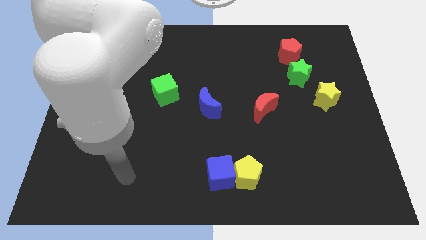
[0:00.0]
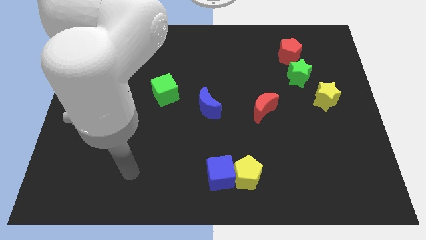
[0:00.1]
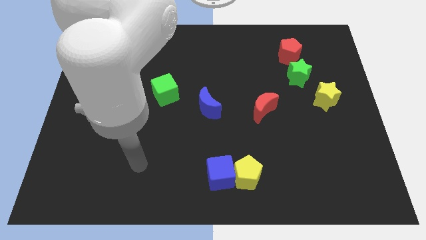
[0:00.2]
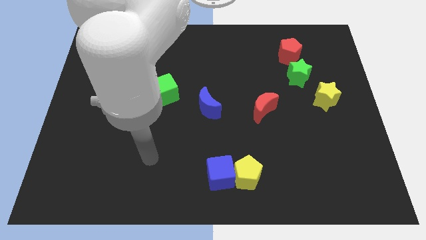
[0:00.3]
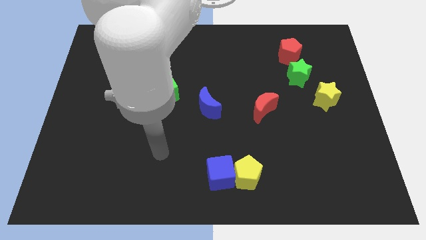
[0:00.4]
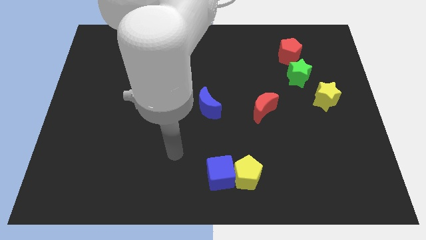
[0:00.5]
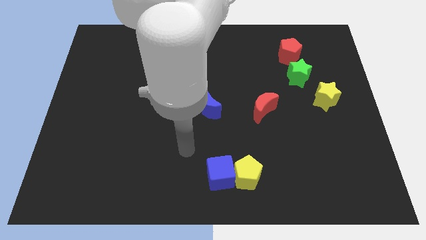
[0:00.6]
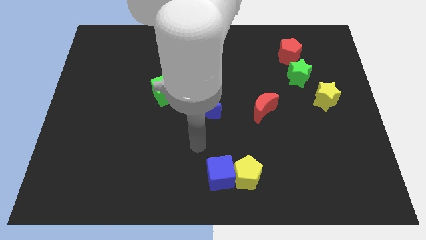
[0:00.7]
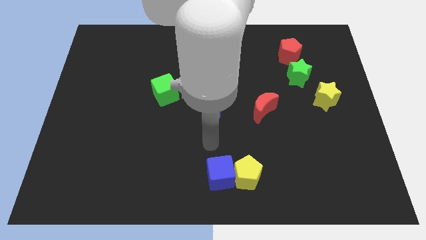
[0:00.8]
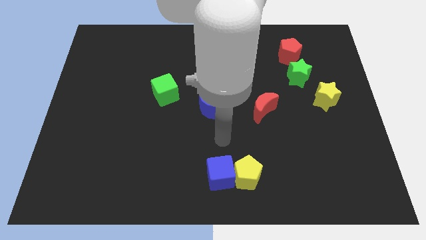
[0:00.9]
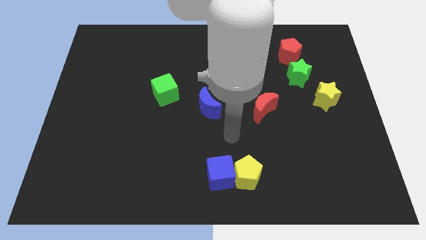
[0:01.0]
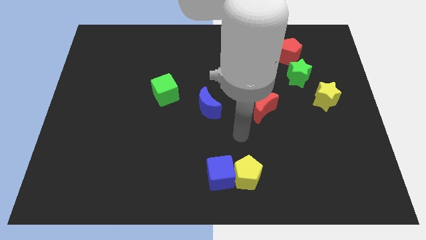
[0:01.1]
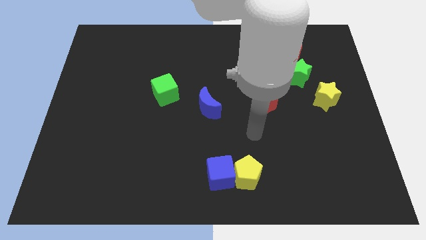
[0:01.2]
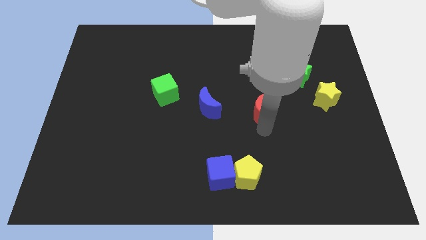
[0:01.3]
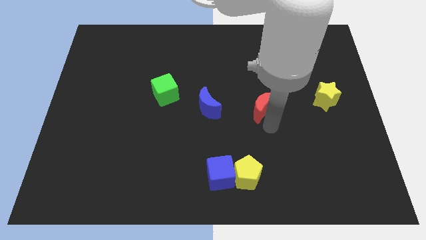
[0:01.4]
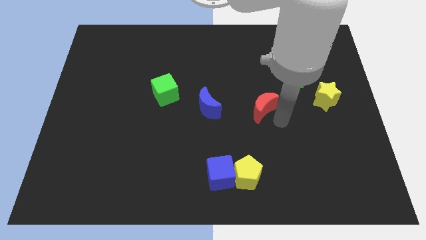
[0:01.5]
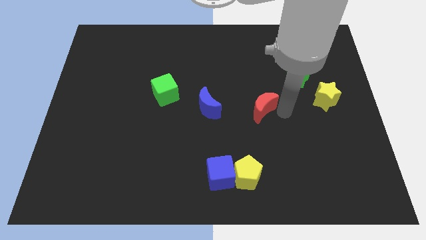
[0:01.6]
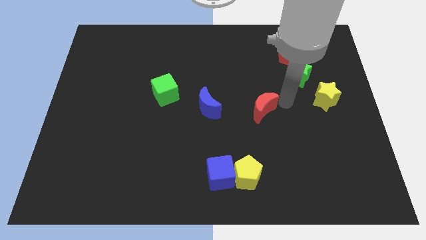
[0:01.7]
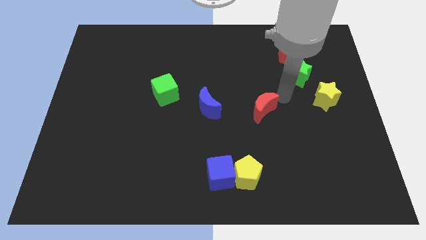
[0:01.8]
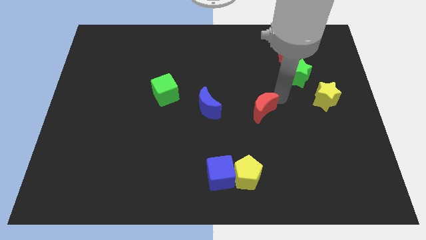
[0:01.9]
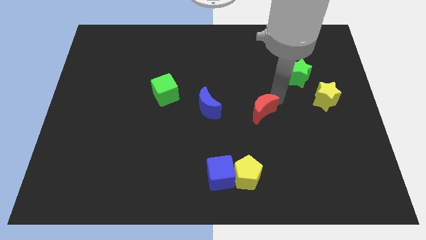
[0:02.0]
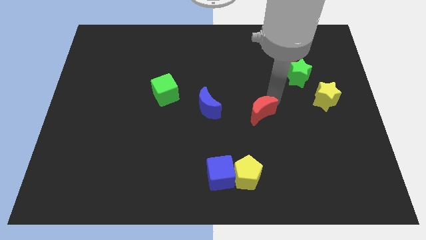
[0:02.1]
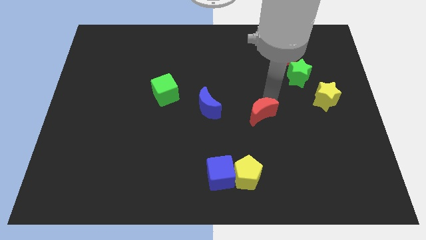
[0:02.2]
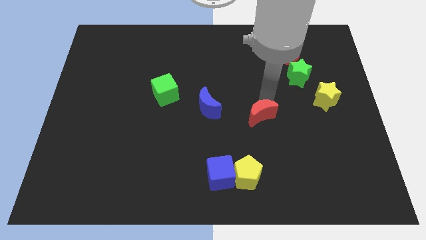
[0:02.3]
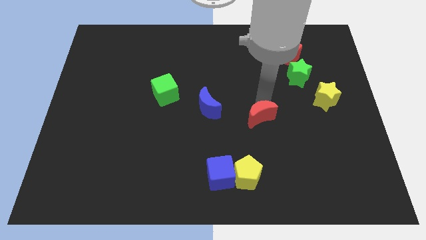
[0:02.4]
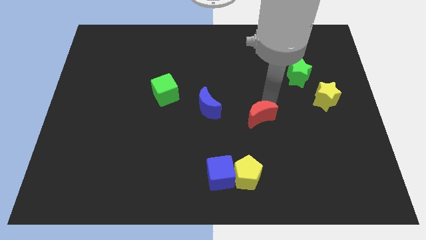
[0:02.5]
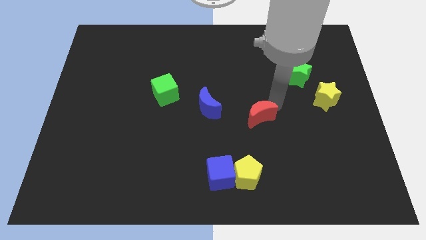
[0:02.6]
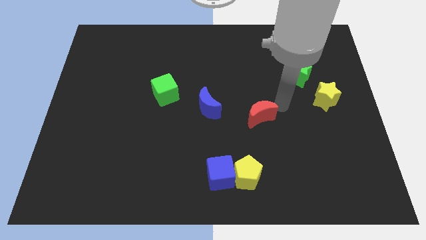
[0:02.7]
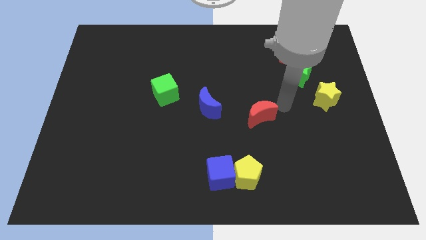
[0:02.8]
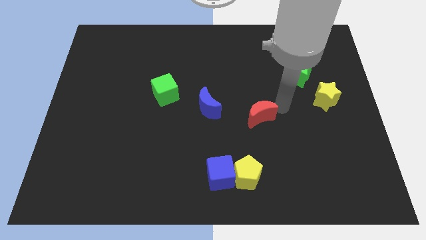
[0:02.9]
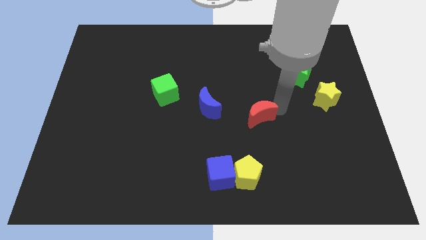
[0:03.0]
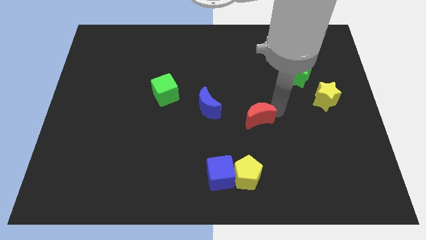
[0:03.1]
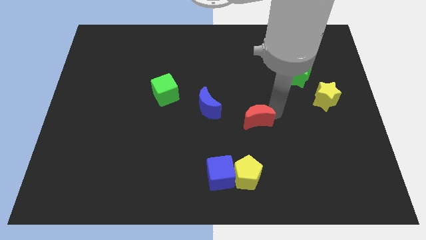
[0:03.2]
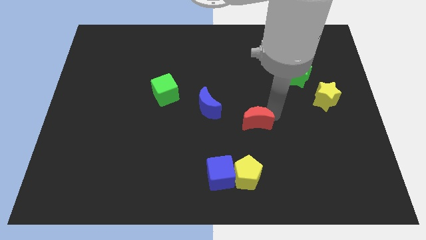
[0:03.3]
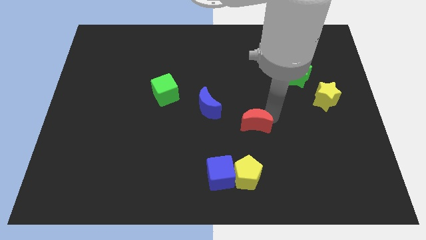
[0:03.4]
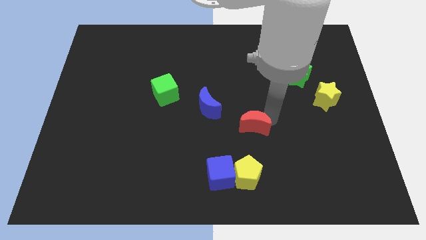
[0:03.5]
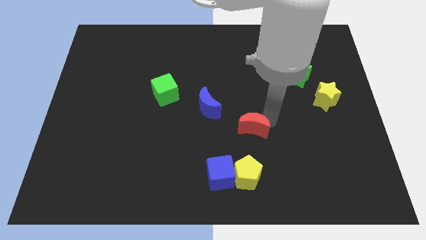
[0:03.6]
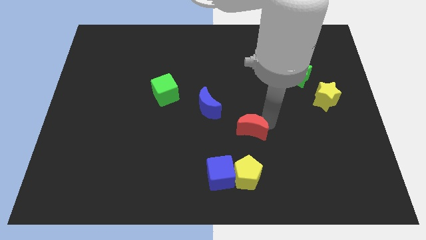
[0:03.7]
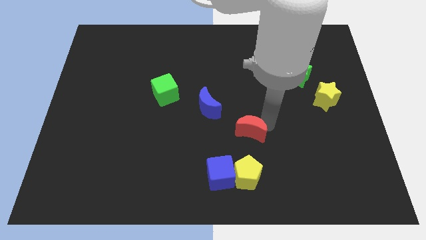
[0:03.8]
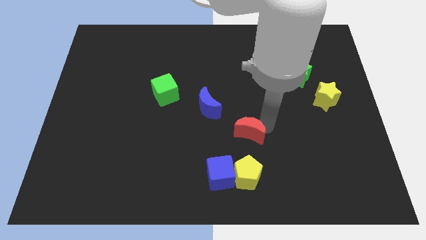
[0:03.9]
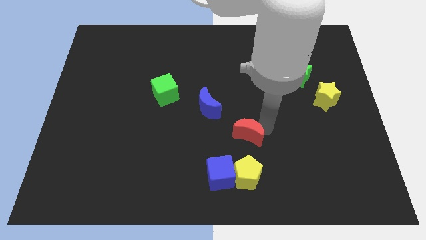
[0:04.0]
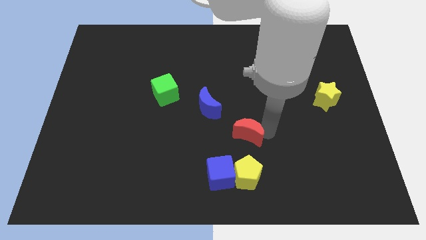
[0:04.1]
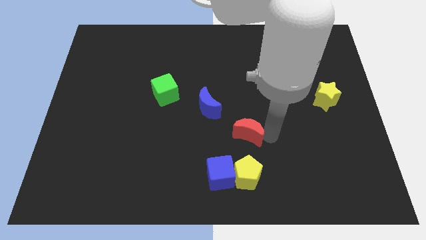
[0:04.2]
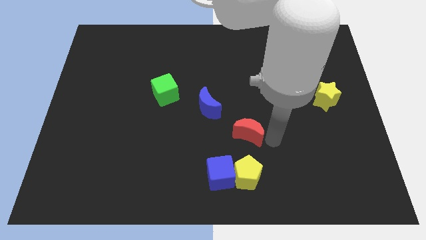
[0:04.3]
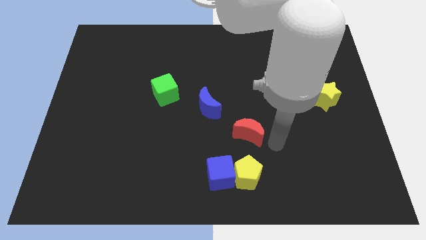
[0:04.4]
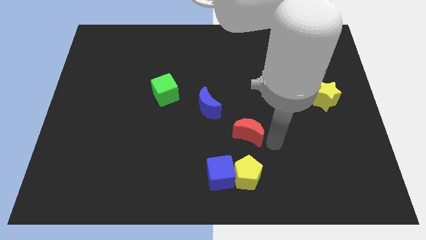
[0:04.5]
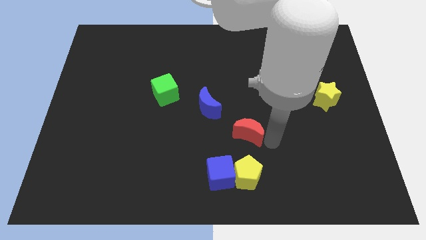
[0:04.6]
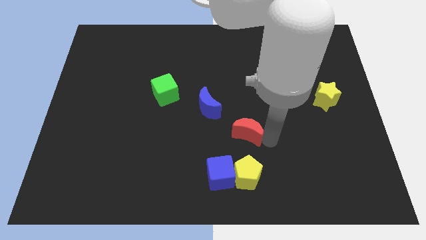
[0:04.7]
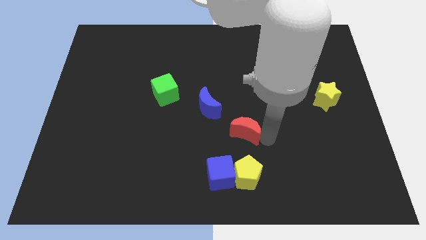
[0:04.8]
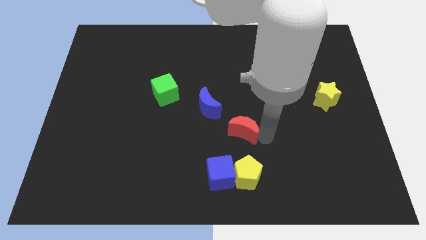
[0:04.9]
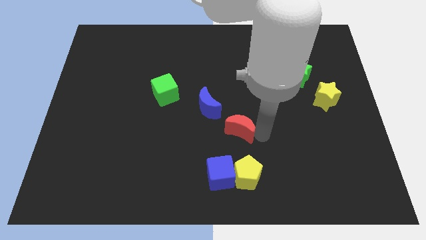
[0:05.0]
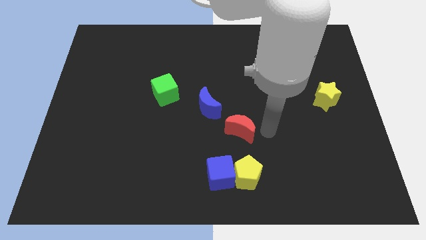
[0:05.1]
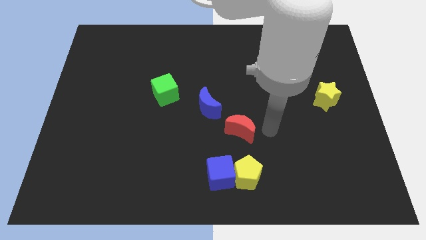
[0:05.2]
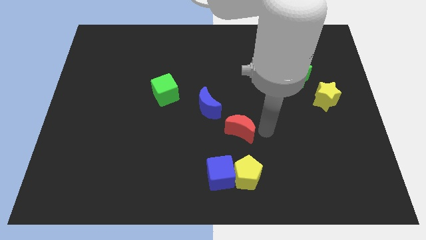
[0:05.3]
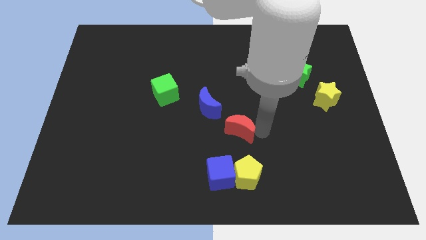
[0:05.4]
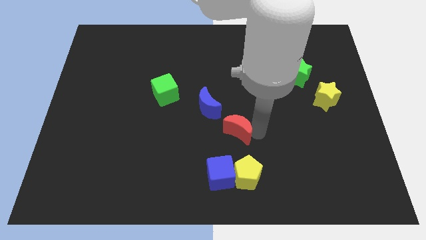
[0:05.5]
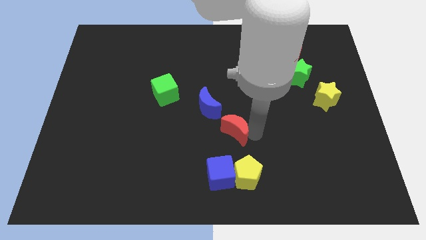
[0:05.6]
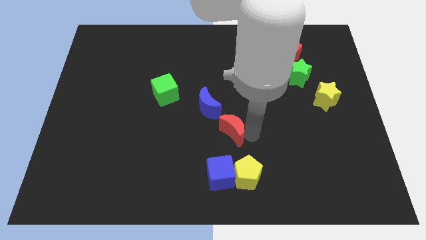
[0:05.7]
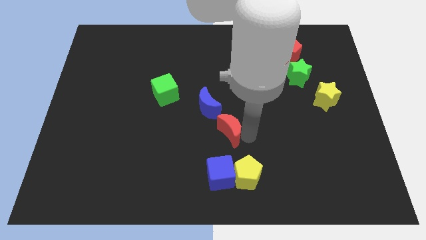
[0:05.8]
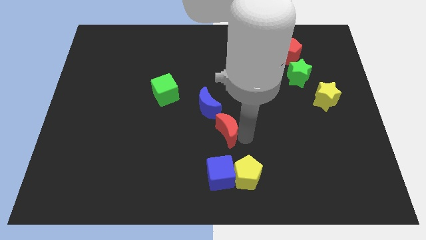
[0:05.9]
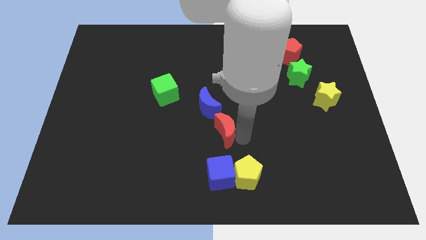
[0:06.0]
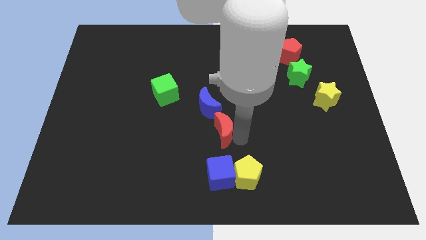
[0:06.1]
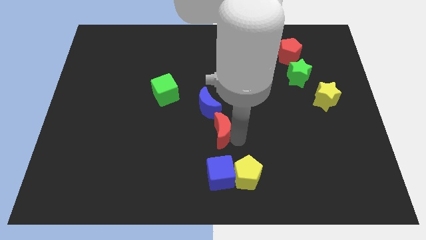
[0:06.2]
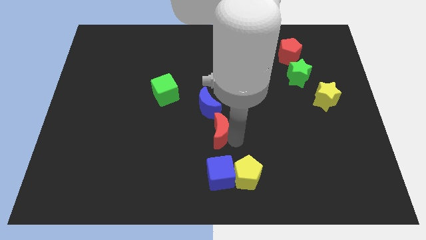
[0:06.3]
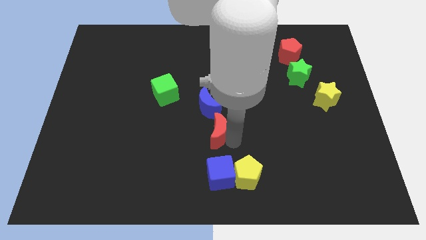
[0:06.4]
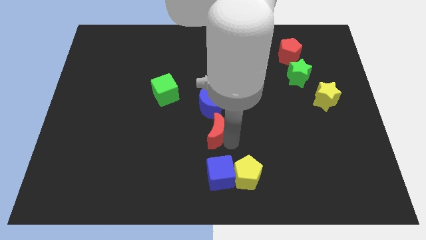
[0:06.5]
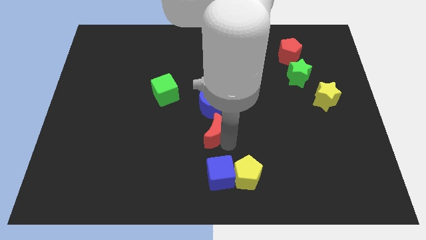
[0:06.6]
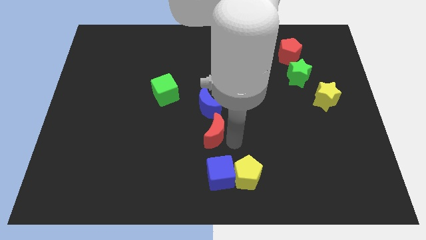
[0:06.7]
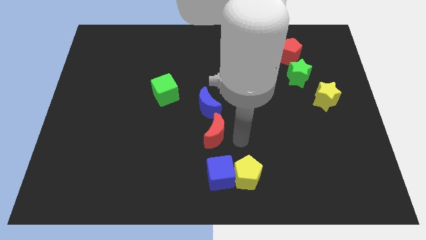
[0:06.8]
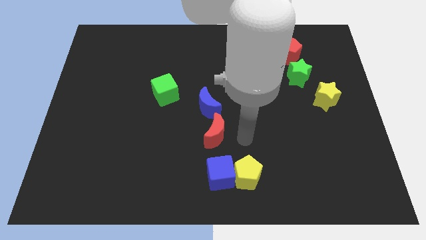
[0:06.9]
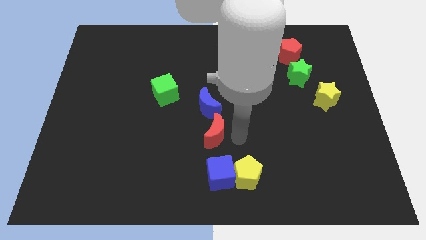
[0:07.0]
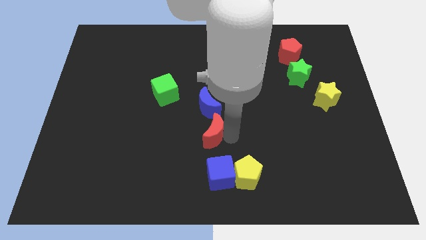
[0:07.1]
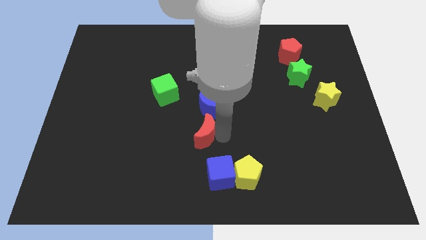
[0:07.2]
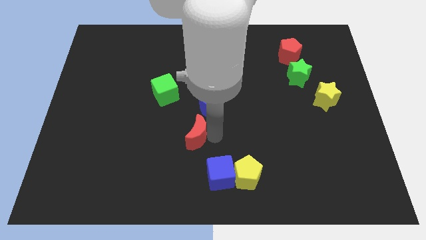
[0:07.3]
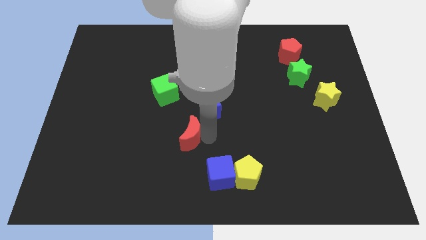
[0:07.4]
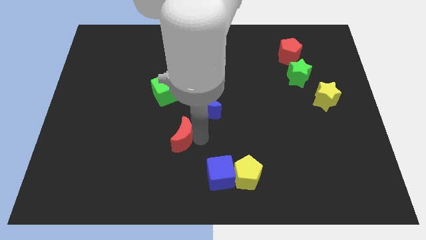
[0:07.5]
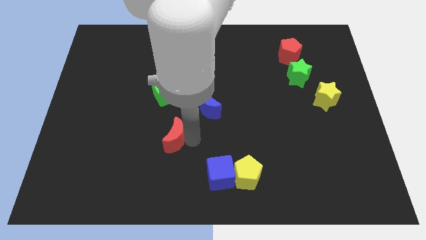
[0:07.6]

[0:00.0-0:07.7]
push the red moon to the bottom side of the green cube
